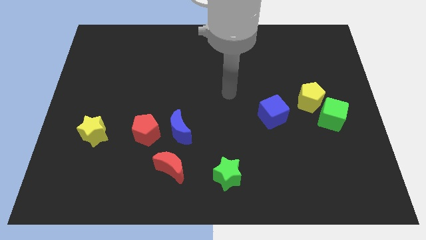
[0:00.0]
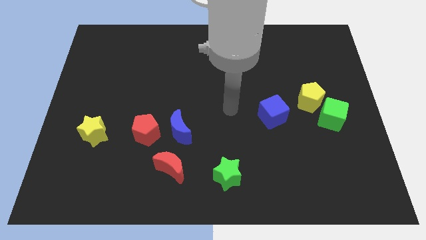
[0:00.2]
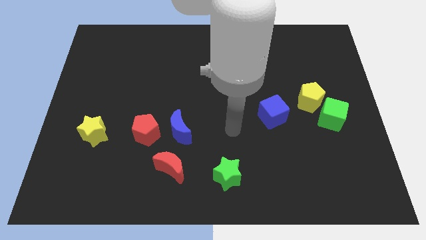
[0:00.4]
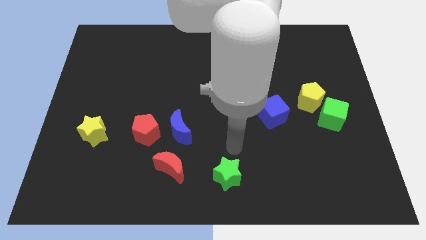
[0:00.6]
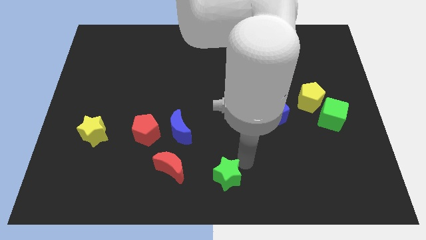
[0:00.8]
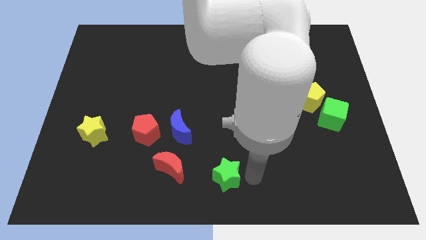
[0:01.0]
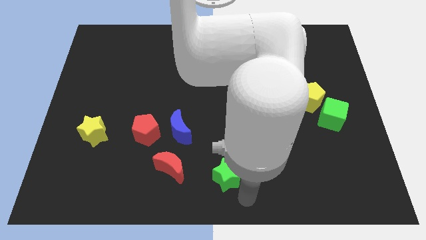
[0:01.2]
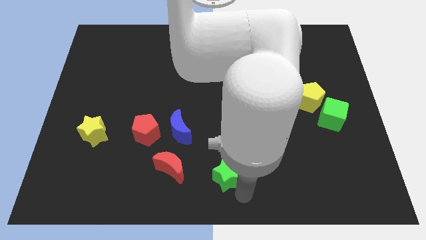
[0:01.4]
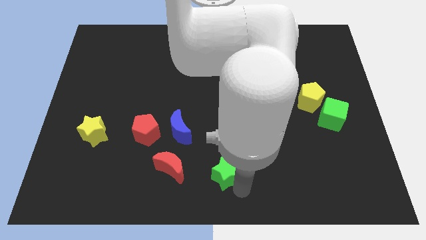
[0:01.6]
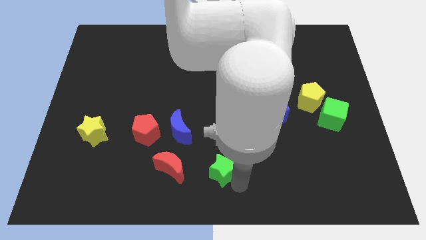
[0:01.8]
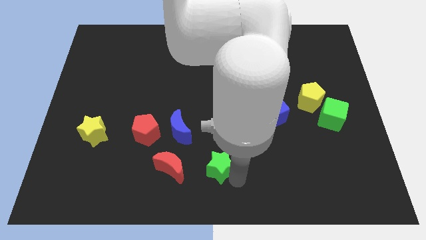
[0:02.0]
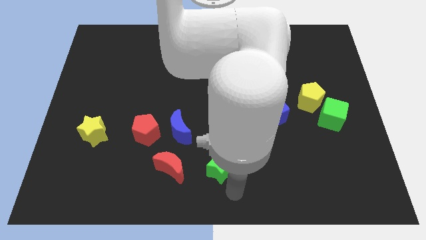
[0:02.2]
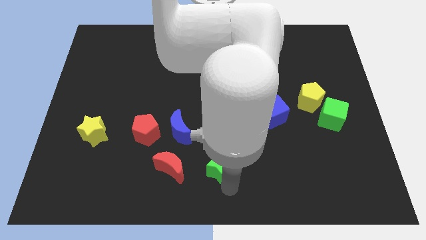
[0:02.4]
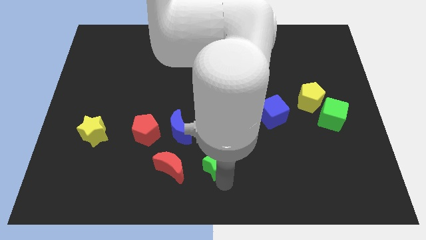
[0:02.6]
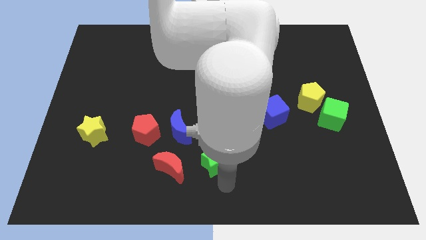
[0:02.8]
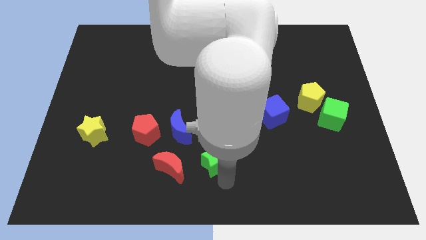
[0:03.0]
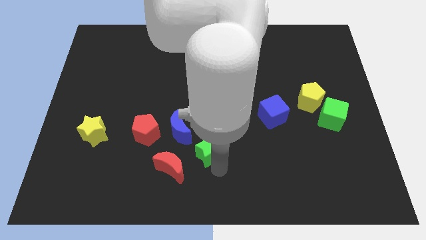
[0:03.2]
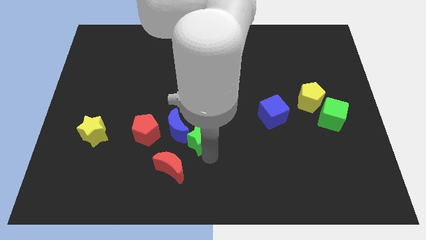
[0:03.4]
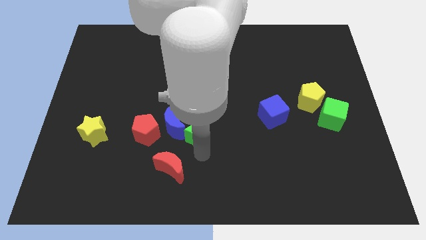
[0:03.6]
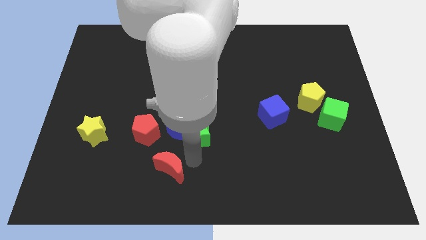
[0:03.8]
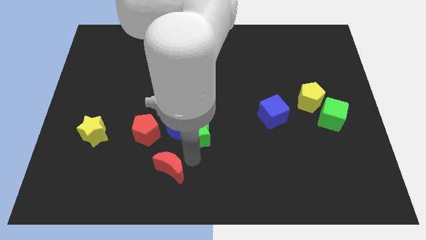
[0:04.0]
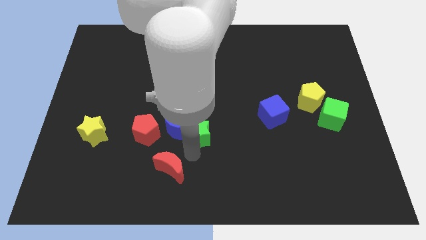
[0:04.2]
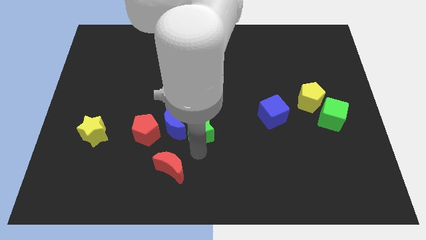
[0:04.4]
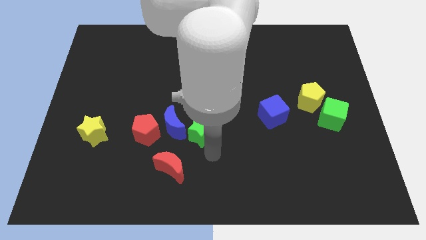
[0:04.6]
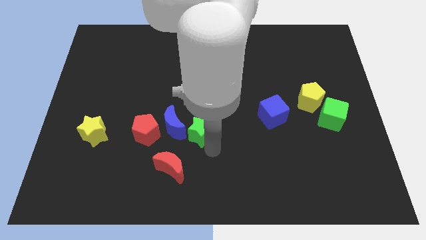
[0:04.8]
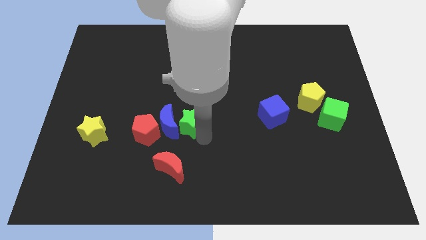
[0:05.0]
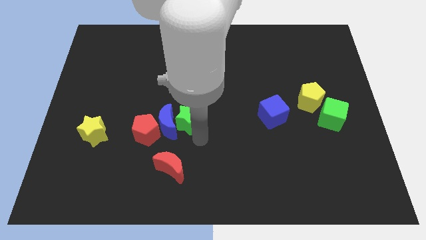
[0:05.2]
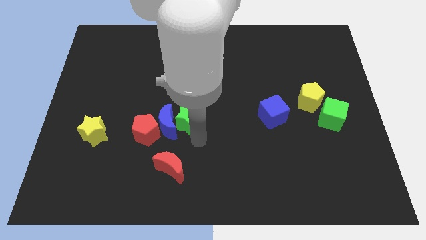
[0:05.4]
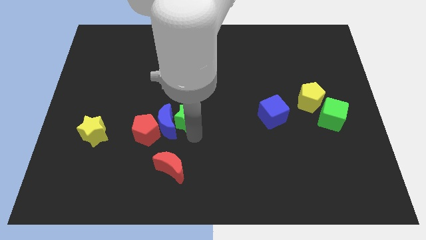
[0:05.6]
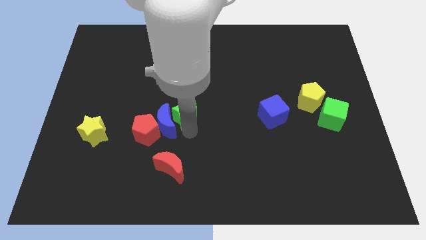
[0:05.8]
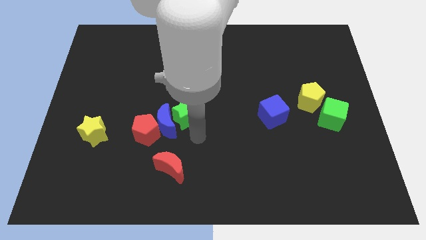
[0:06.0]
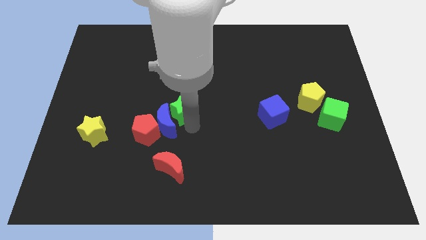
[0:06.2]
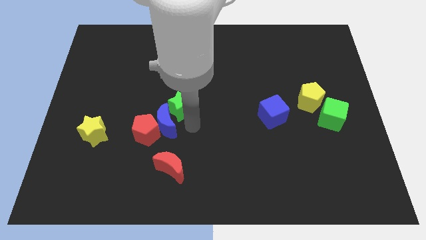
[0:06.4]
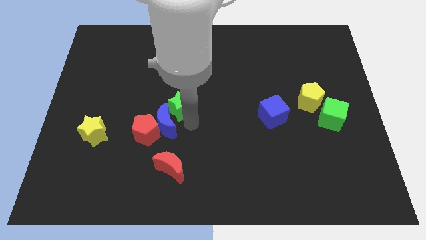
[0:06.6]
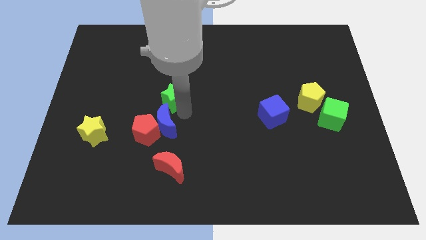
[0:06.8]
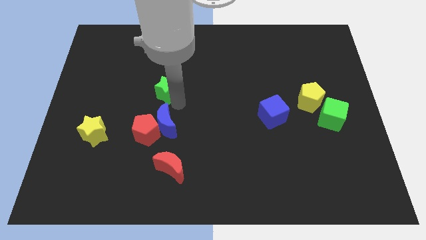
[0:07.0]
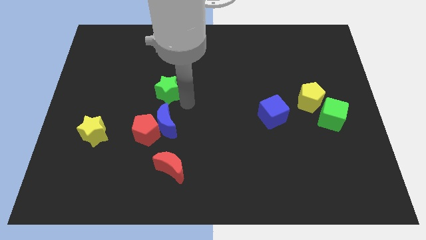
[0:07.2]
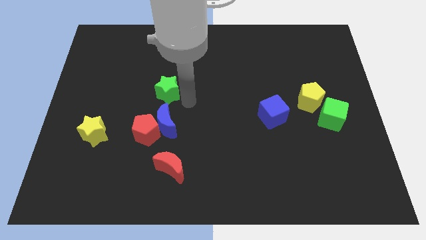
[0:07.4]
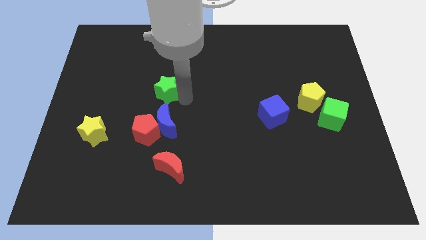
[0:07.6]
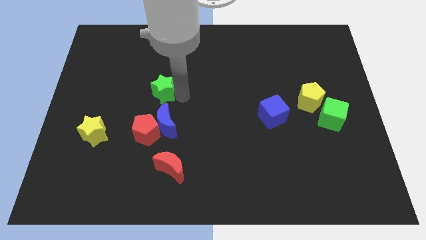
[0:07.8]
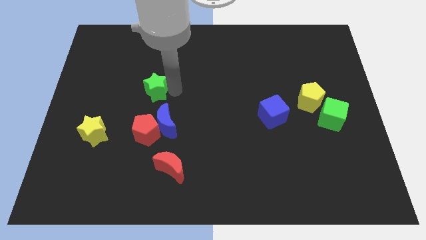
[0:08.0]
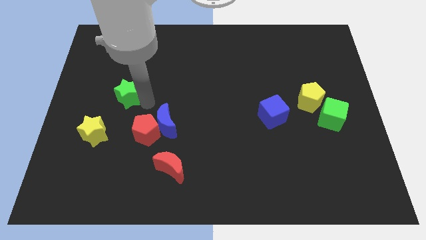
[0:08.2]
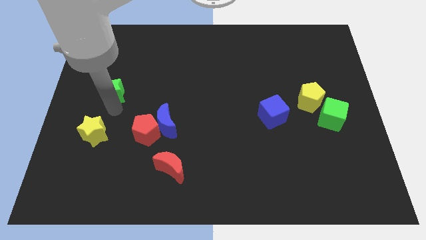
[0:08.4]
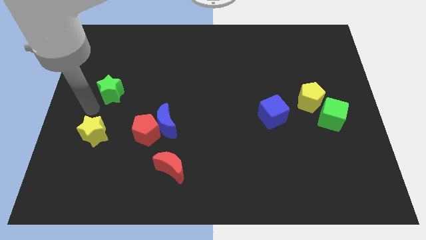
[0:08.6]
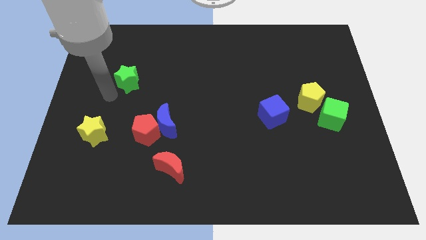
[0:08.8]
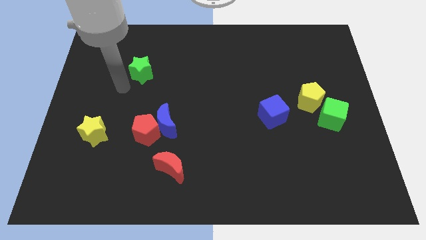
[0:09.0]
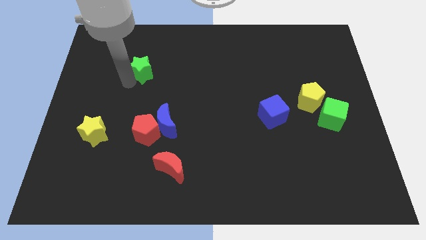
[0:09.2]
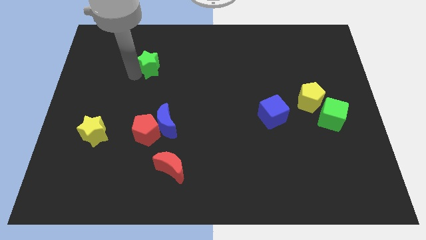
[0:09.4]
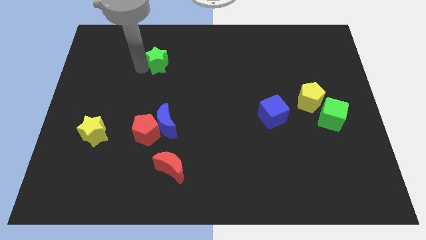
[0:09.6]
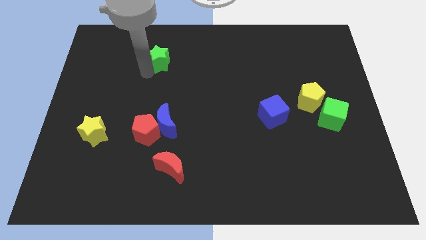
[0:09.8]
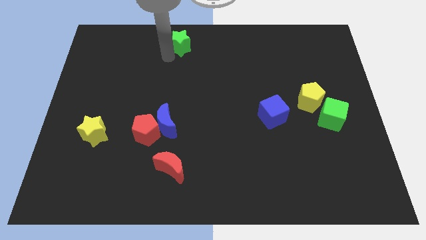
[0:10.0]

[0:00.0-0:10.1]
slide the green star to the towards your base

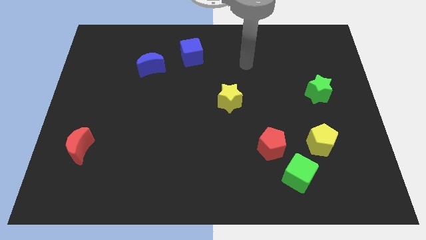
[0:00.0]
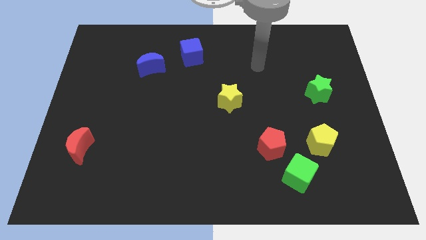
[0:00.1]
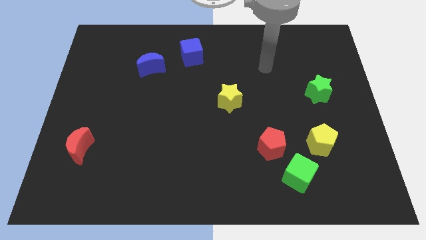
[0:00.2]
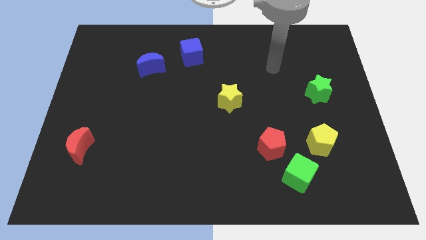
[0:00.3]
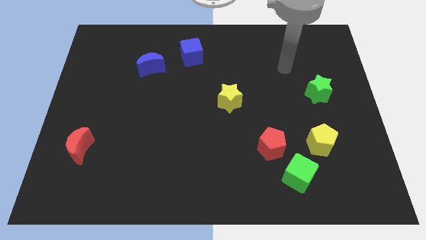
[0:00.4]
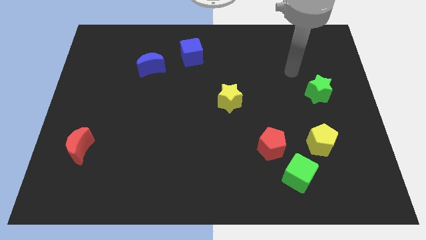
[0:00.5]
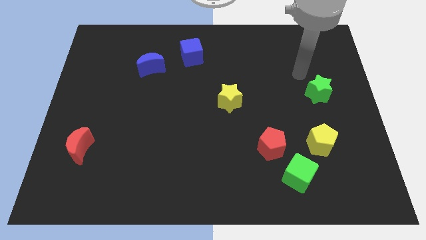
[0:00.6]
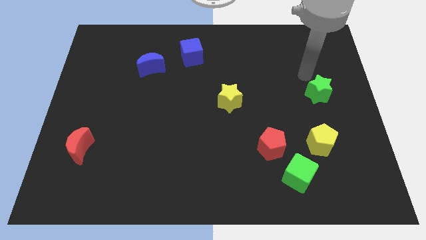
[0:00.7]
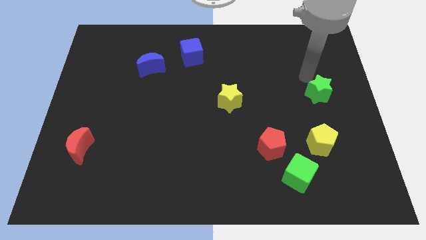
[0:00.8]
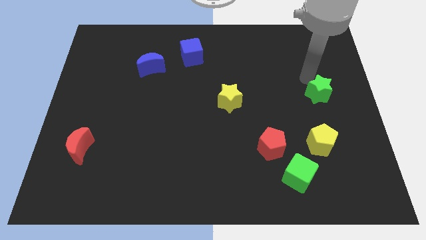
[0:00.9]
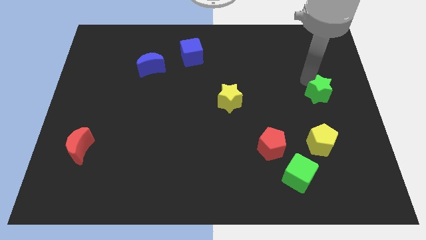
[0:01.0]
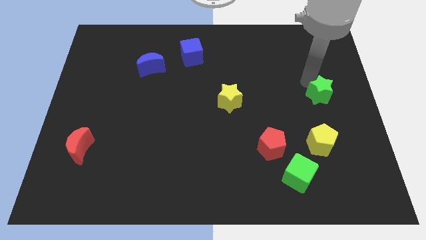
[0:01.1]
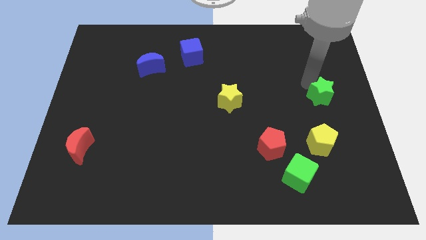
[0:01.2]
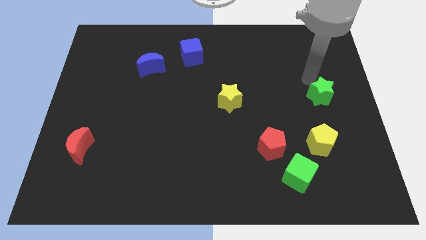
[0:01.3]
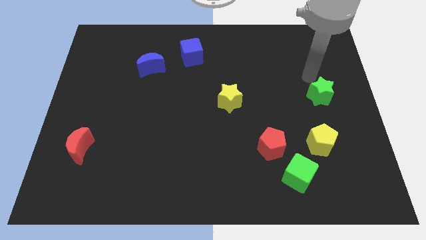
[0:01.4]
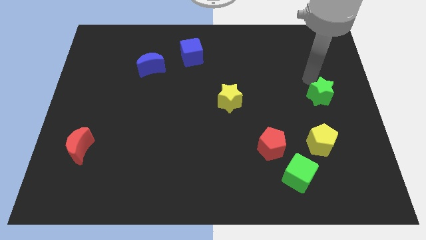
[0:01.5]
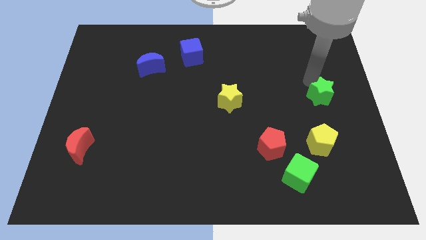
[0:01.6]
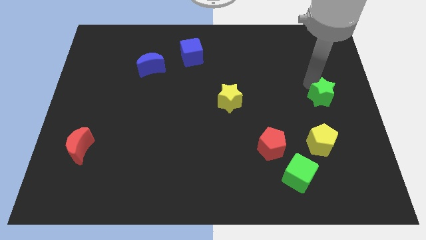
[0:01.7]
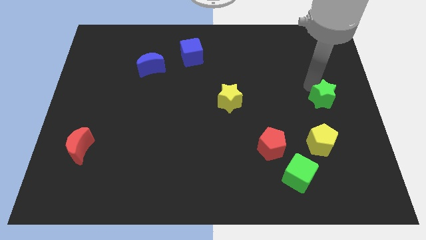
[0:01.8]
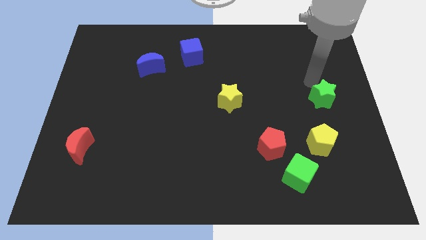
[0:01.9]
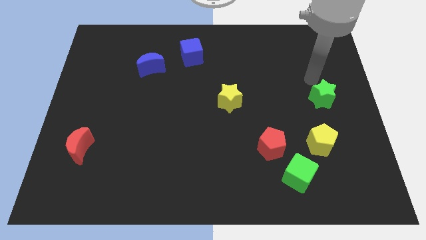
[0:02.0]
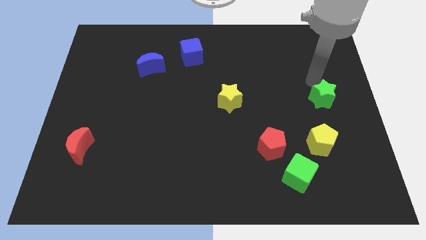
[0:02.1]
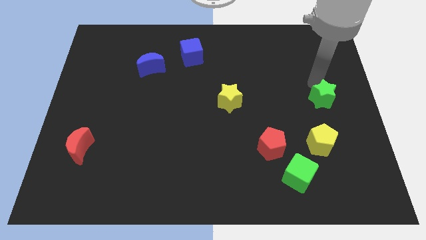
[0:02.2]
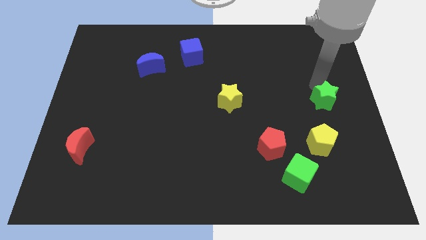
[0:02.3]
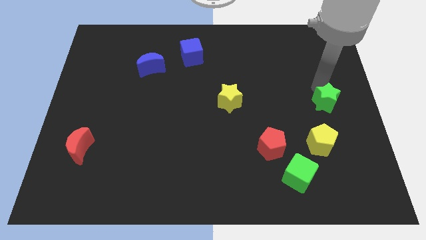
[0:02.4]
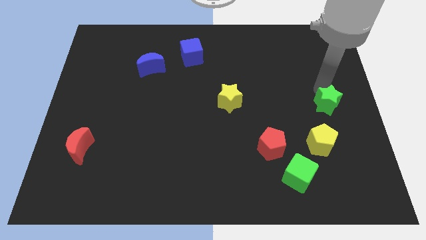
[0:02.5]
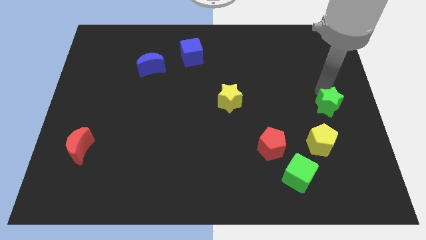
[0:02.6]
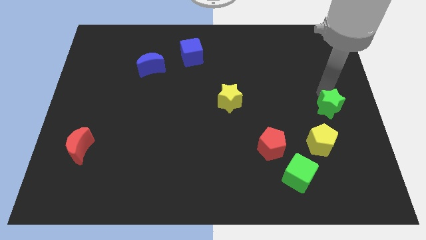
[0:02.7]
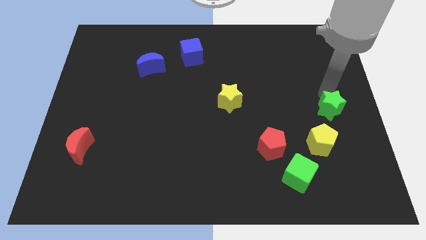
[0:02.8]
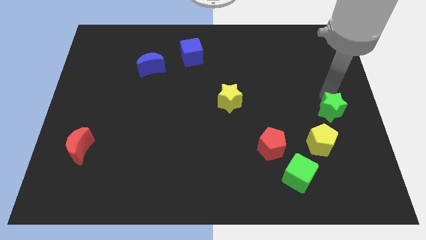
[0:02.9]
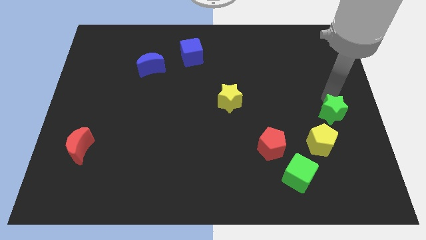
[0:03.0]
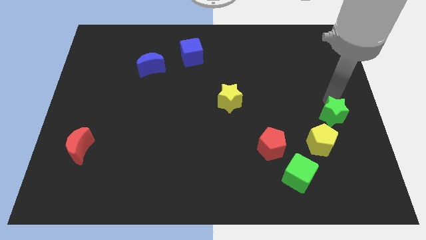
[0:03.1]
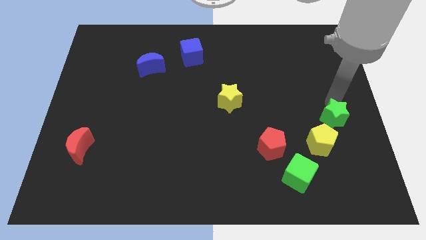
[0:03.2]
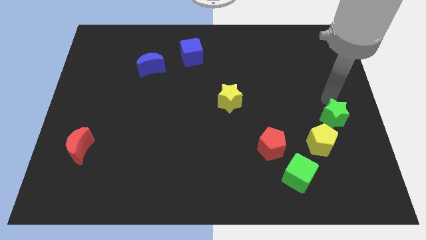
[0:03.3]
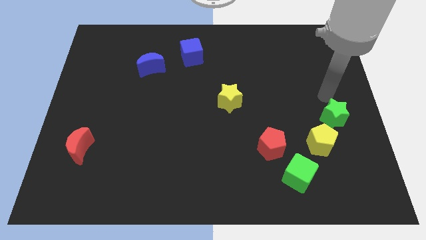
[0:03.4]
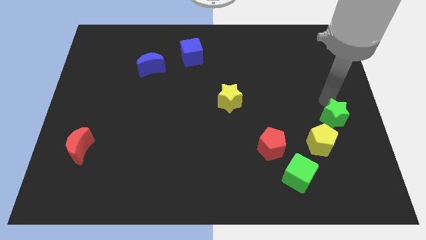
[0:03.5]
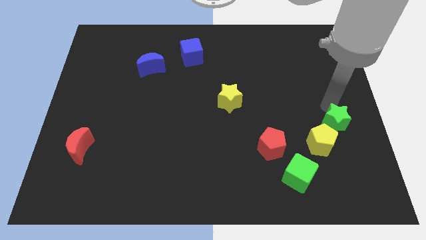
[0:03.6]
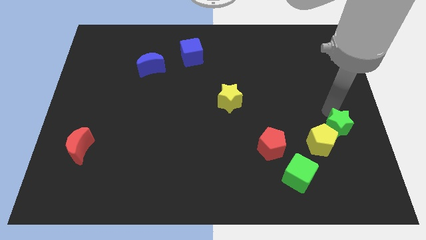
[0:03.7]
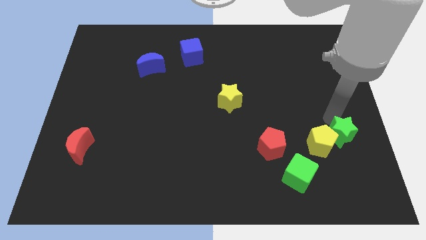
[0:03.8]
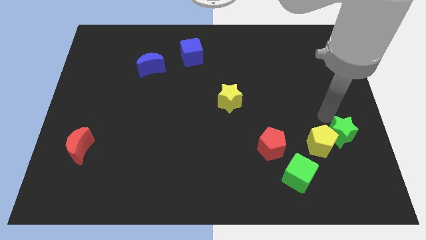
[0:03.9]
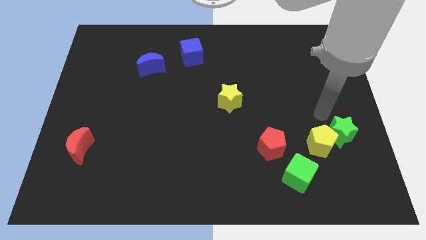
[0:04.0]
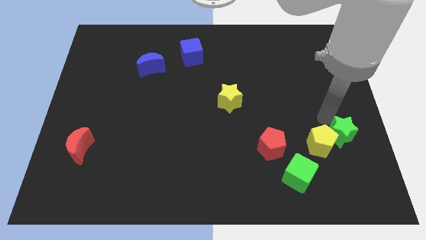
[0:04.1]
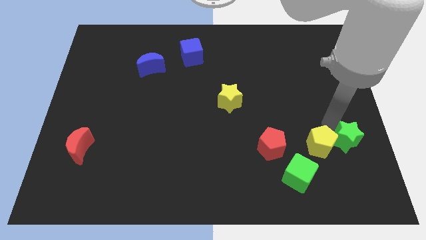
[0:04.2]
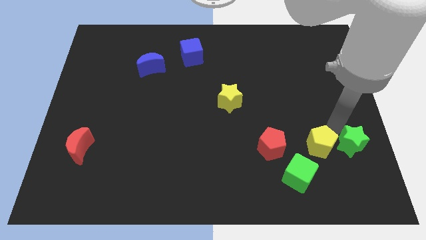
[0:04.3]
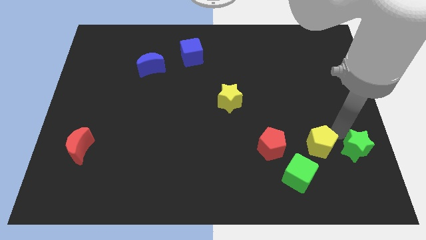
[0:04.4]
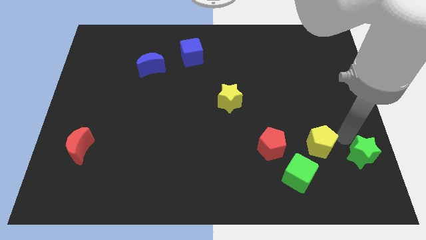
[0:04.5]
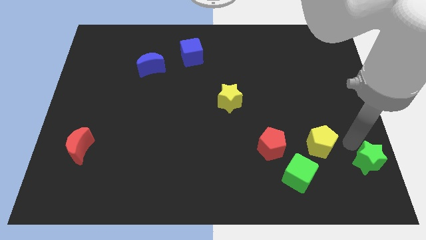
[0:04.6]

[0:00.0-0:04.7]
slide the green star to the bottom right corner
